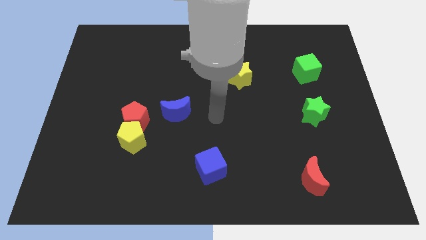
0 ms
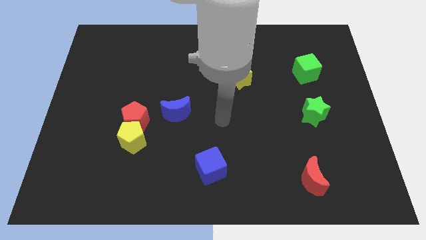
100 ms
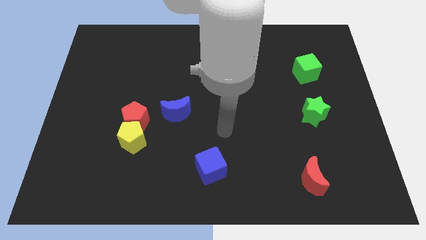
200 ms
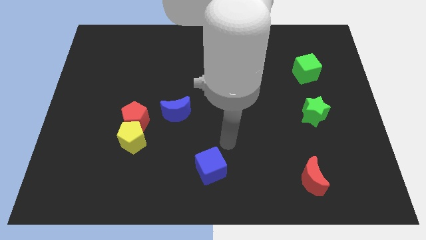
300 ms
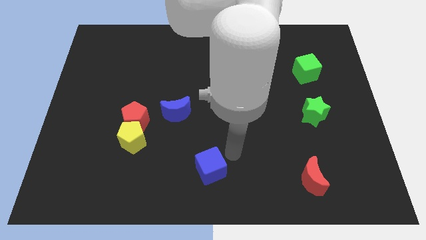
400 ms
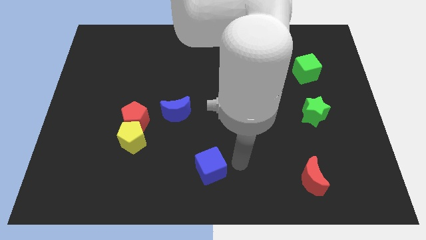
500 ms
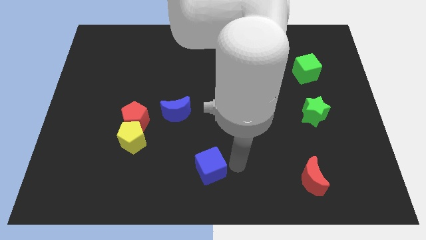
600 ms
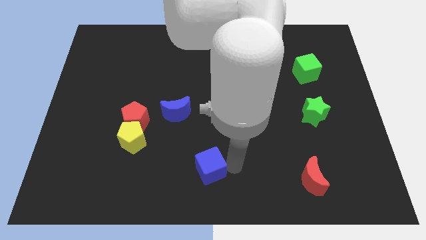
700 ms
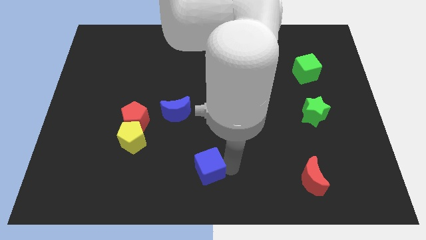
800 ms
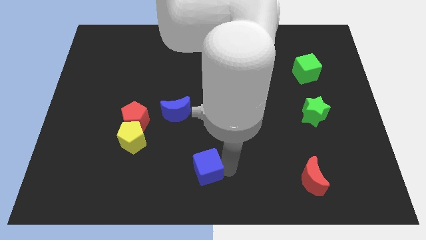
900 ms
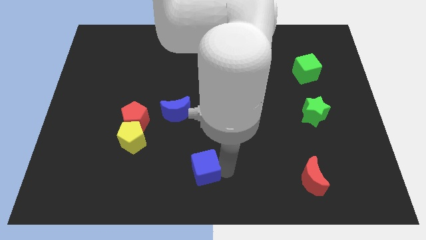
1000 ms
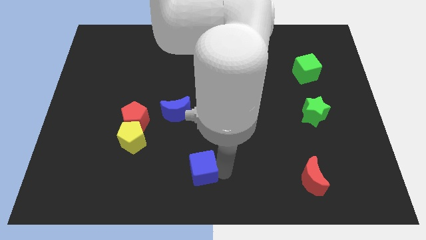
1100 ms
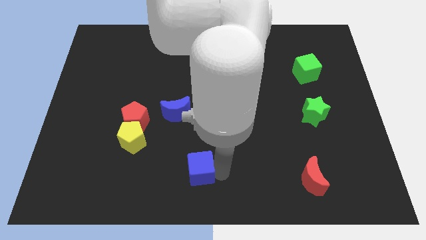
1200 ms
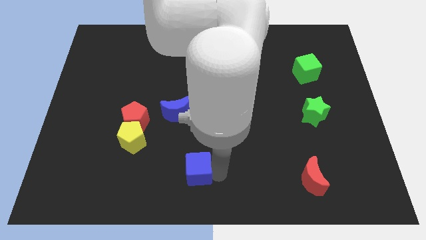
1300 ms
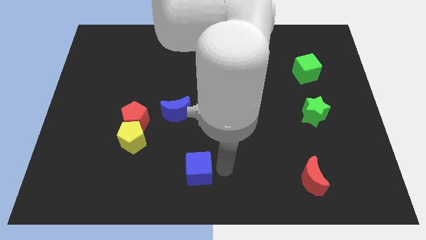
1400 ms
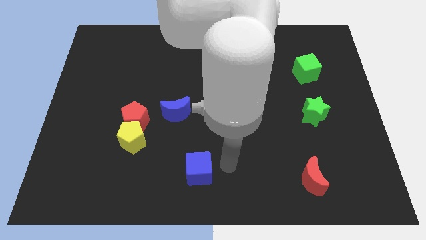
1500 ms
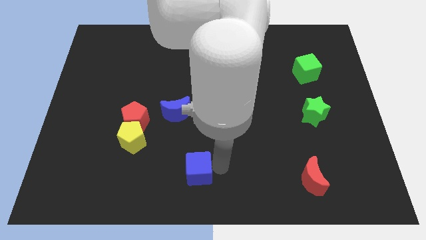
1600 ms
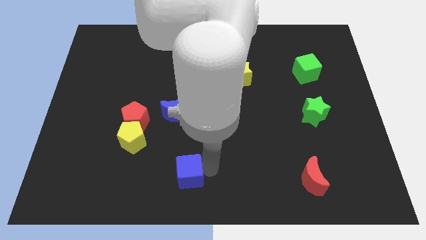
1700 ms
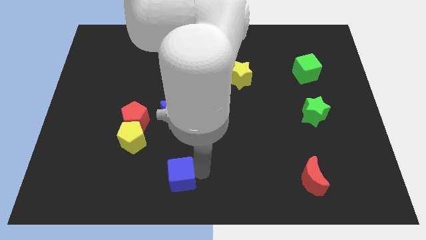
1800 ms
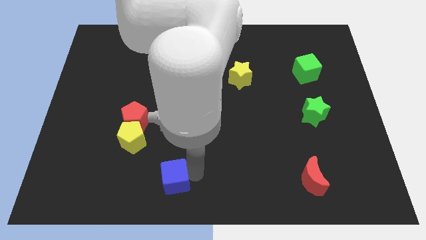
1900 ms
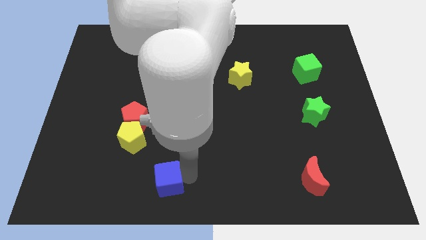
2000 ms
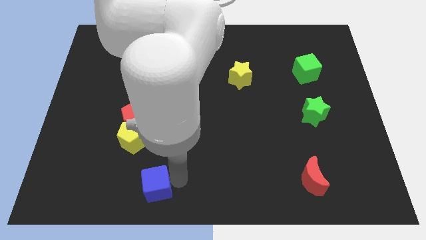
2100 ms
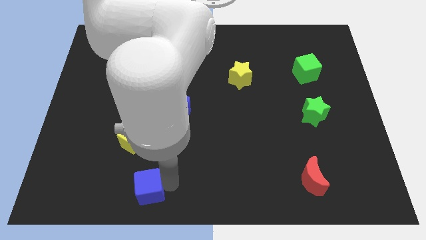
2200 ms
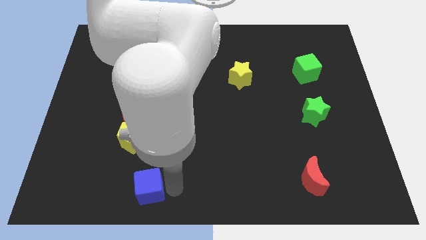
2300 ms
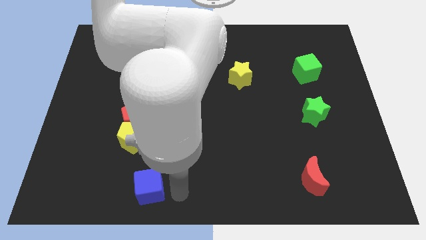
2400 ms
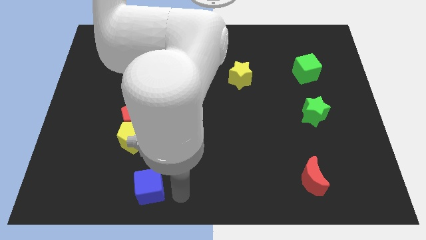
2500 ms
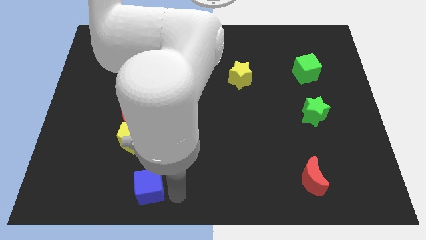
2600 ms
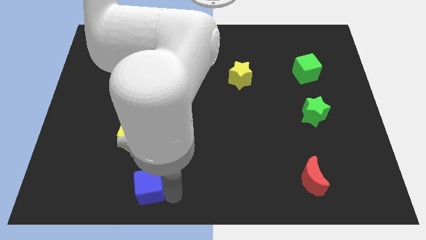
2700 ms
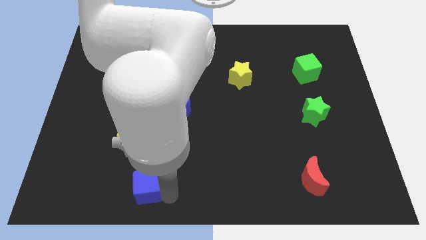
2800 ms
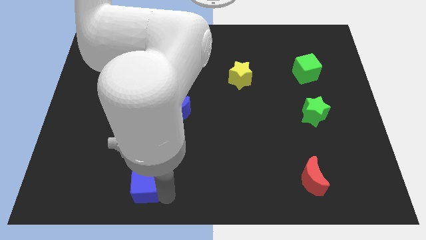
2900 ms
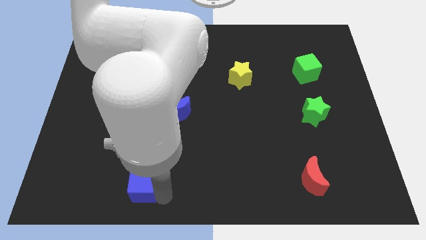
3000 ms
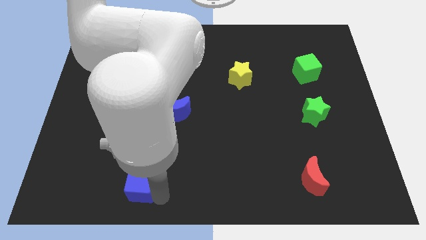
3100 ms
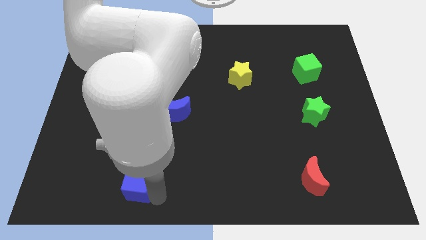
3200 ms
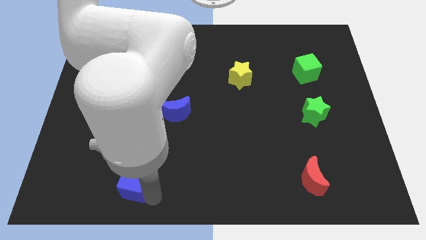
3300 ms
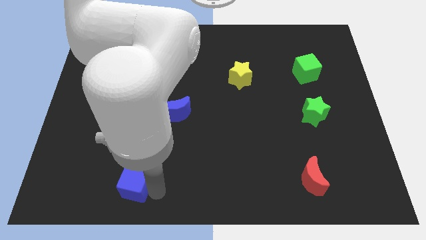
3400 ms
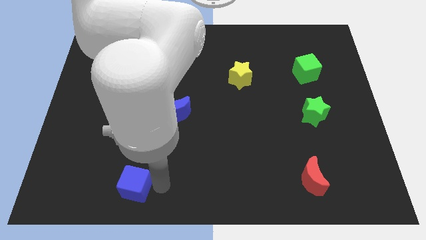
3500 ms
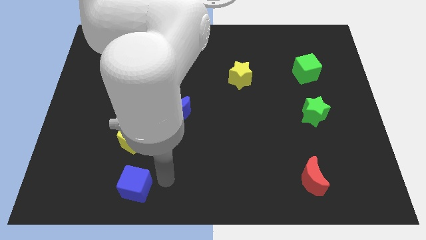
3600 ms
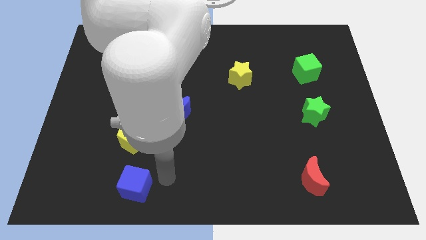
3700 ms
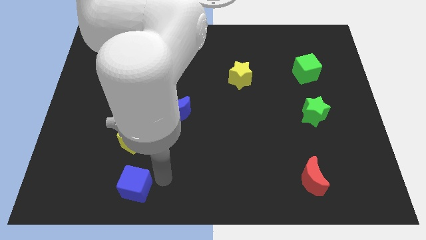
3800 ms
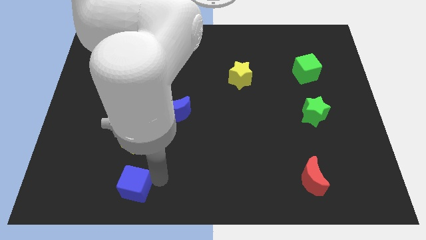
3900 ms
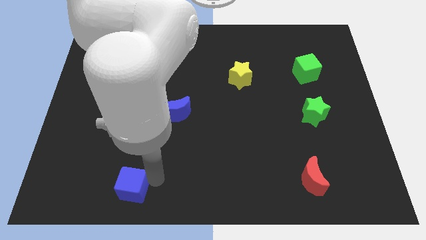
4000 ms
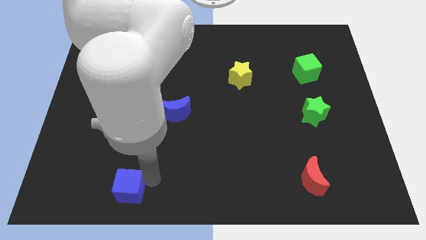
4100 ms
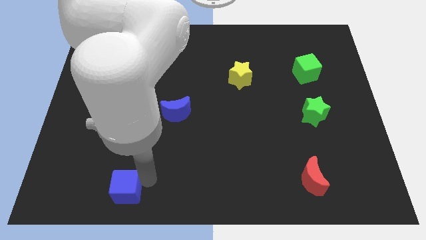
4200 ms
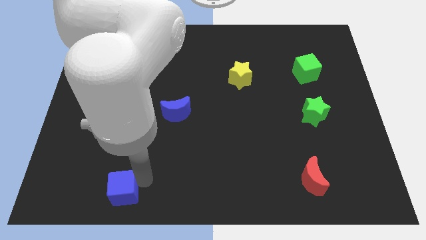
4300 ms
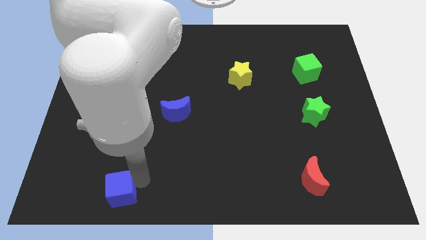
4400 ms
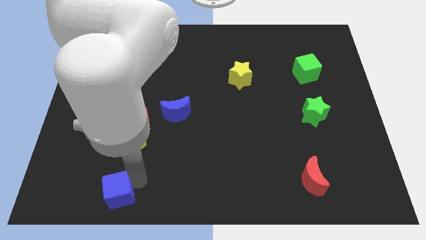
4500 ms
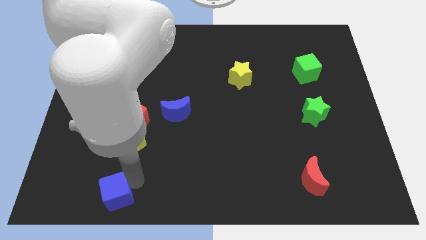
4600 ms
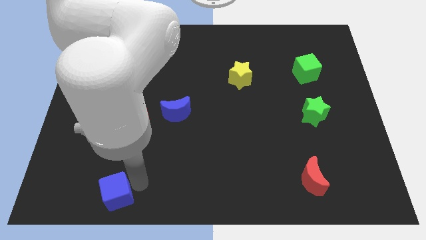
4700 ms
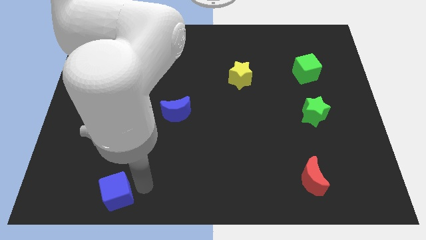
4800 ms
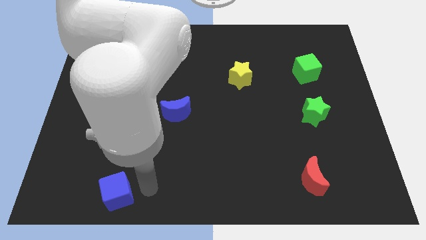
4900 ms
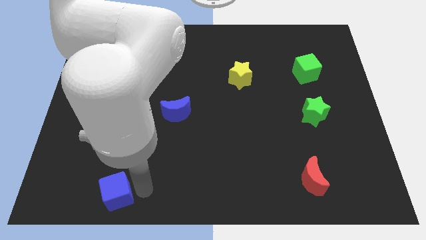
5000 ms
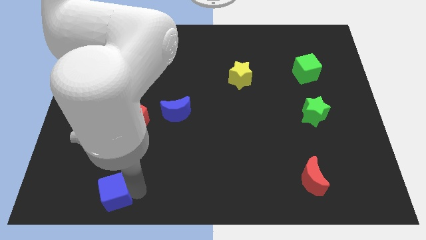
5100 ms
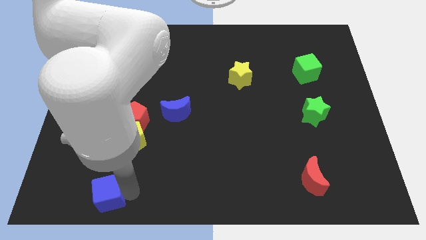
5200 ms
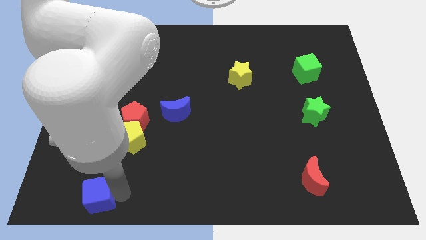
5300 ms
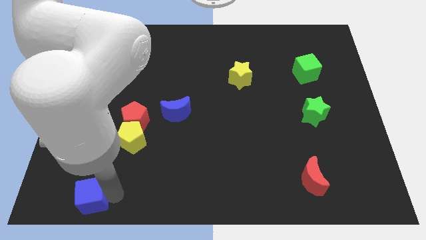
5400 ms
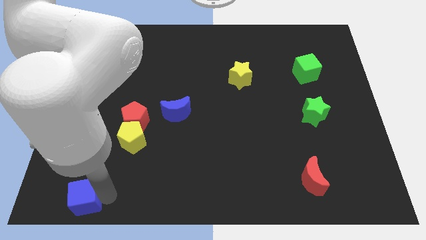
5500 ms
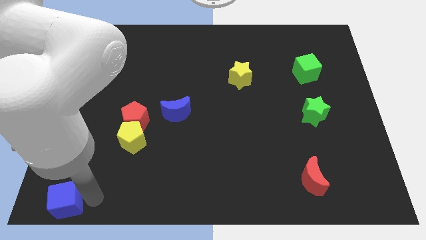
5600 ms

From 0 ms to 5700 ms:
push the blue cube to the lower left corner

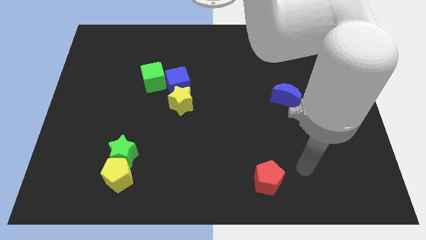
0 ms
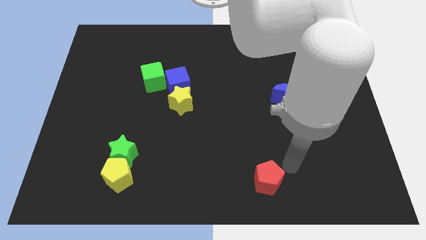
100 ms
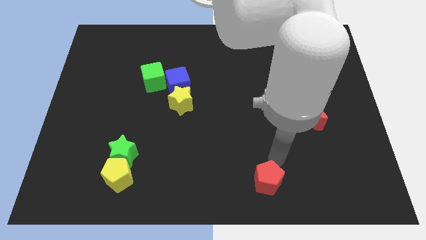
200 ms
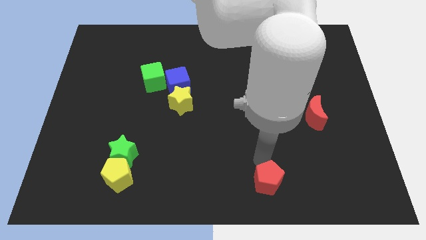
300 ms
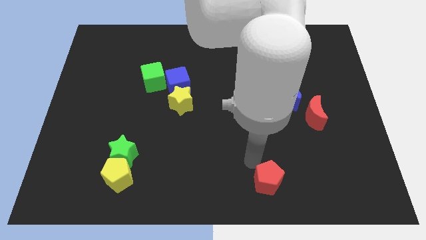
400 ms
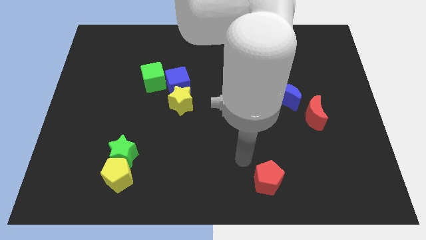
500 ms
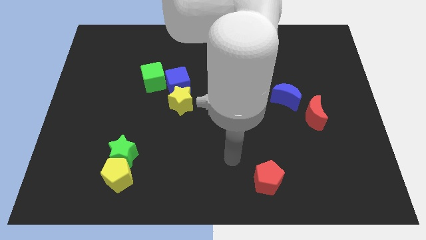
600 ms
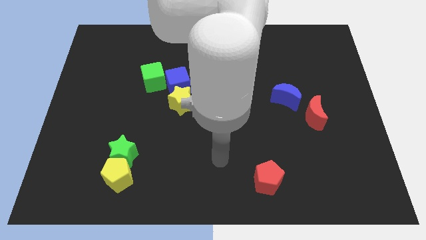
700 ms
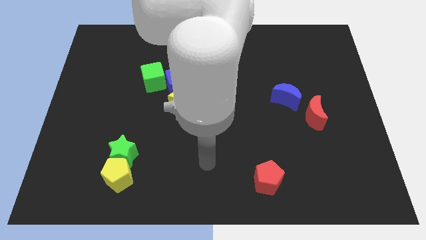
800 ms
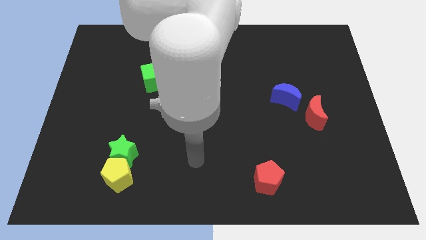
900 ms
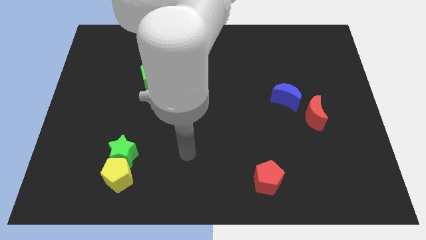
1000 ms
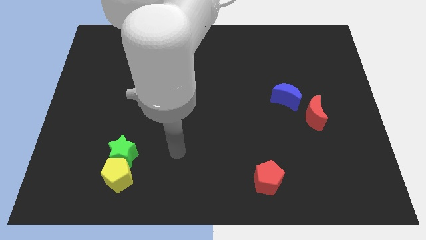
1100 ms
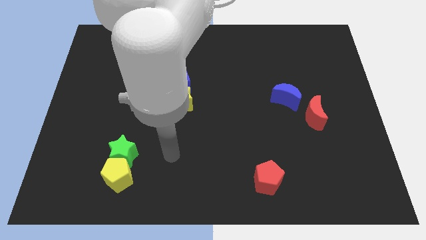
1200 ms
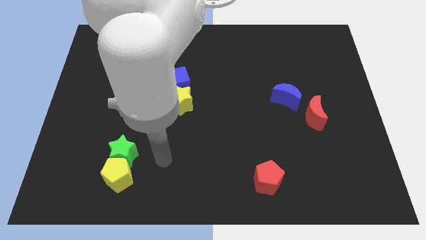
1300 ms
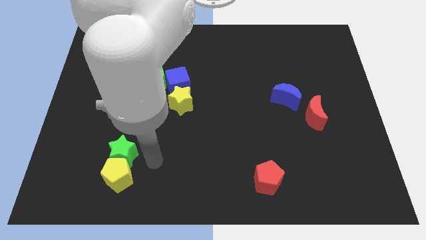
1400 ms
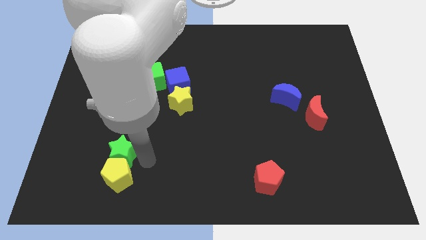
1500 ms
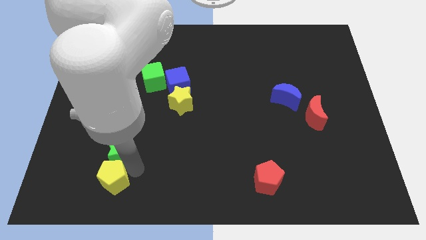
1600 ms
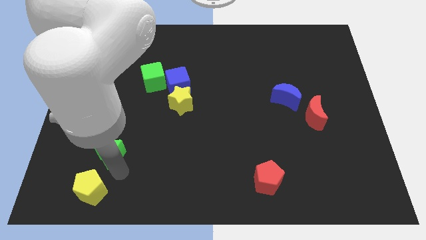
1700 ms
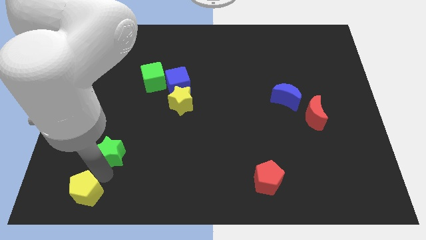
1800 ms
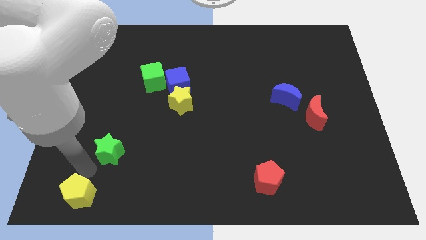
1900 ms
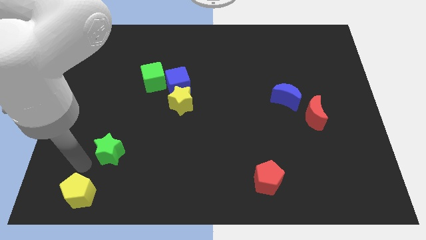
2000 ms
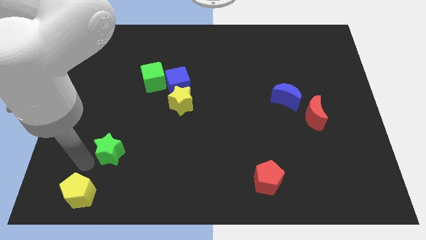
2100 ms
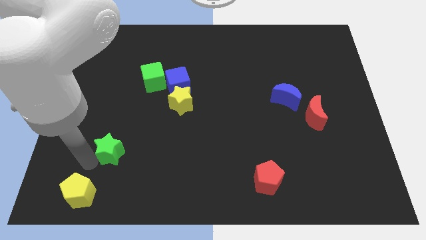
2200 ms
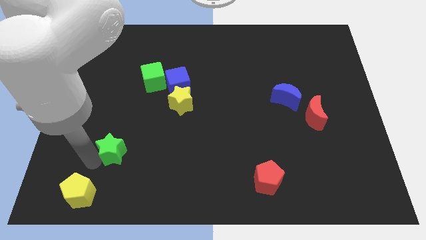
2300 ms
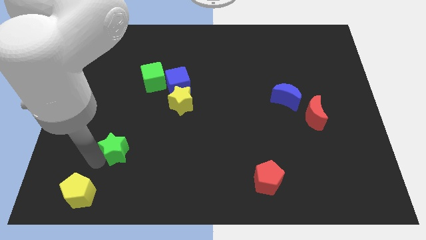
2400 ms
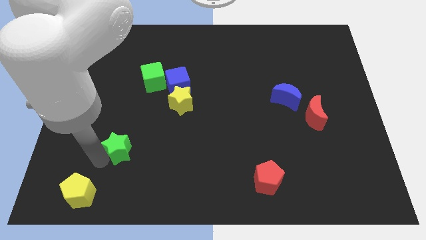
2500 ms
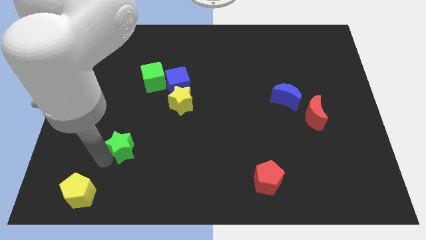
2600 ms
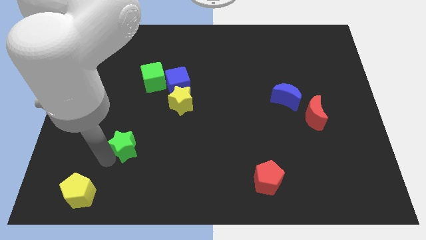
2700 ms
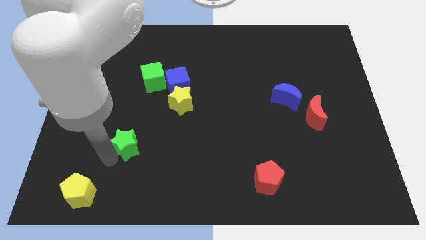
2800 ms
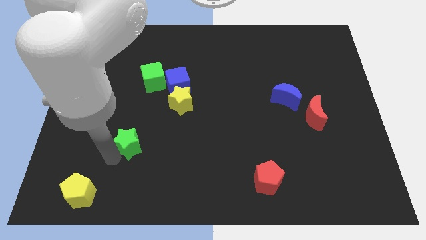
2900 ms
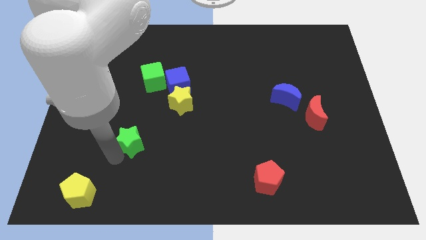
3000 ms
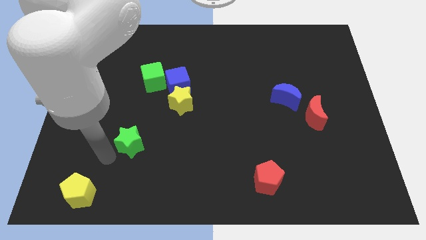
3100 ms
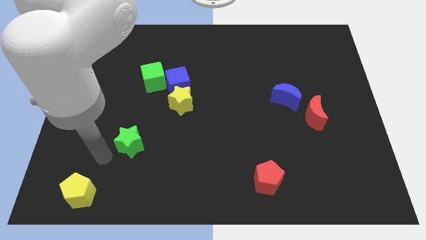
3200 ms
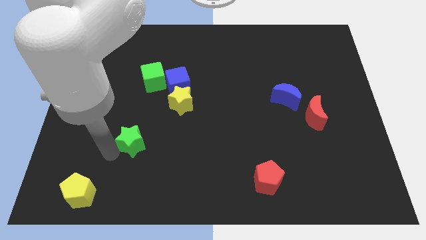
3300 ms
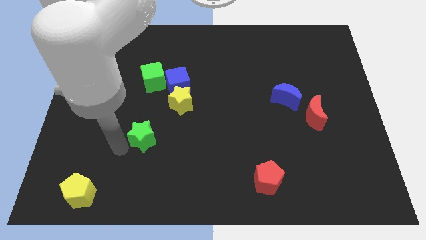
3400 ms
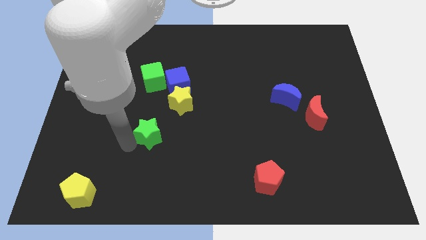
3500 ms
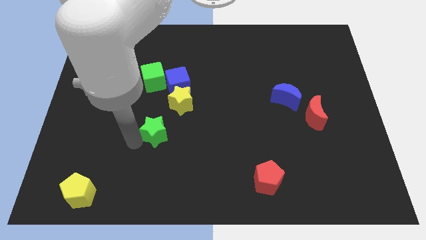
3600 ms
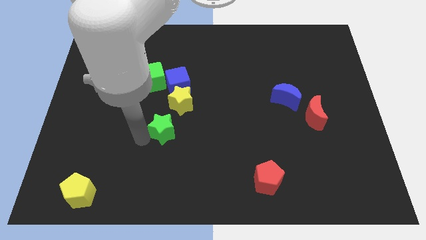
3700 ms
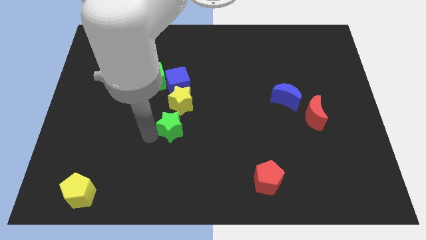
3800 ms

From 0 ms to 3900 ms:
push the green star to the center
